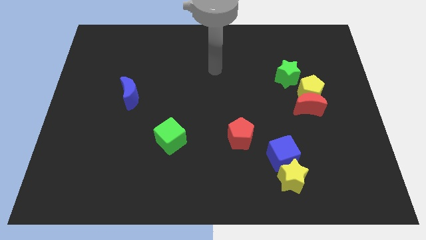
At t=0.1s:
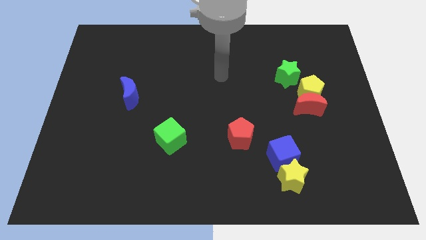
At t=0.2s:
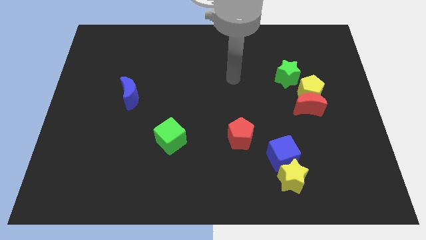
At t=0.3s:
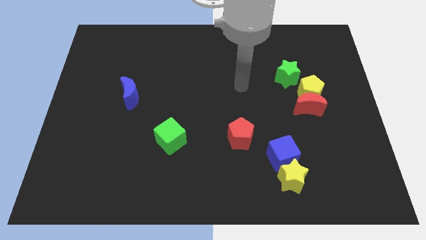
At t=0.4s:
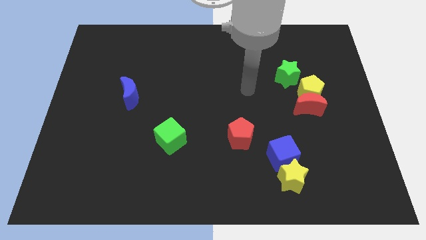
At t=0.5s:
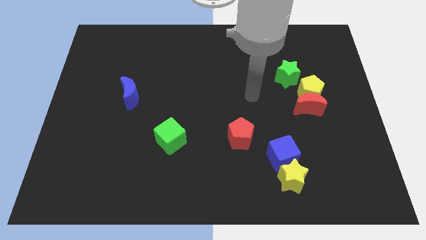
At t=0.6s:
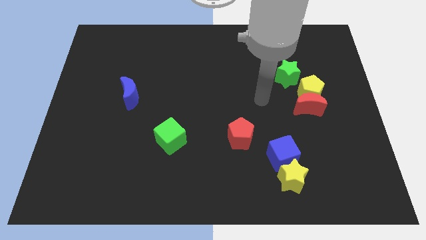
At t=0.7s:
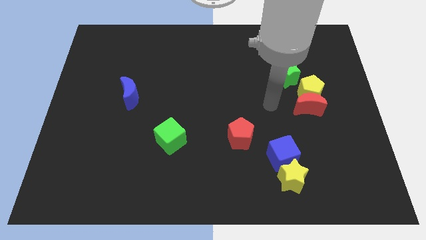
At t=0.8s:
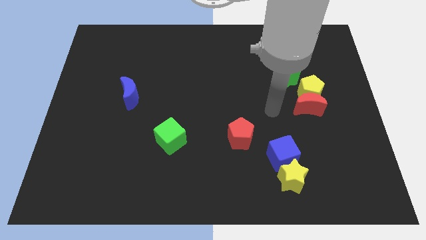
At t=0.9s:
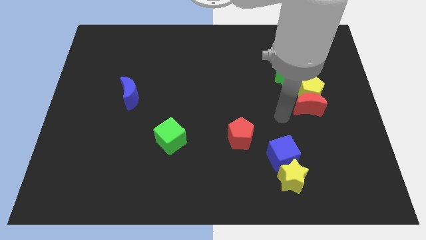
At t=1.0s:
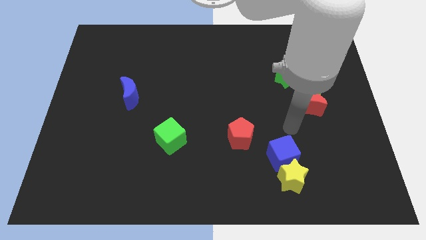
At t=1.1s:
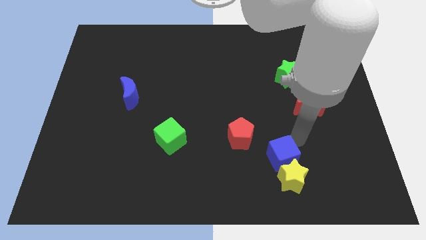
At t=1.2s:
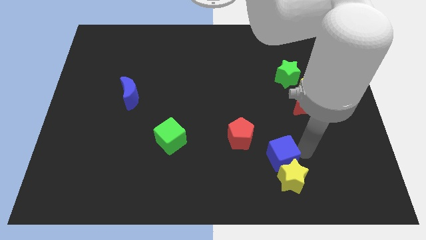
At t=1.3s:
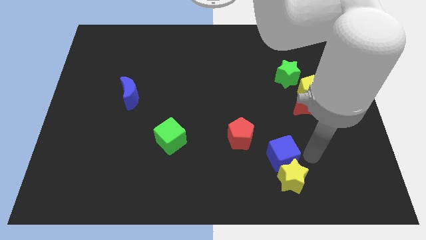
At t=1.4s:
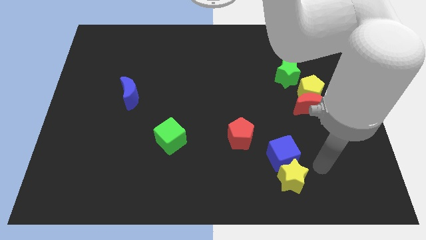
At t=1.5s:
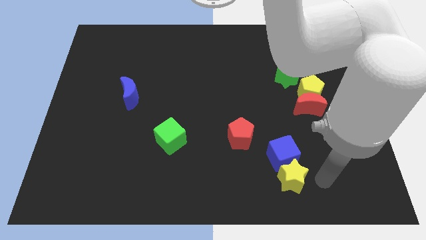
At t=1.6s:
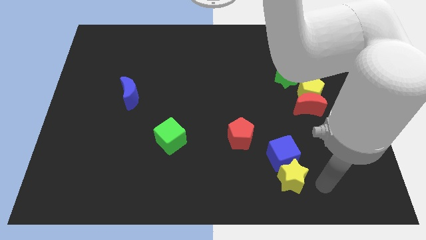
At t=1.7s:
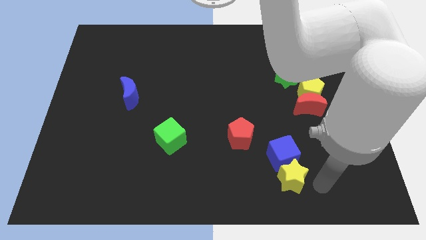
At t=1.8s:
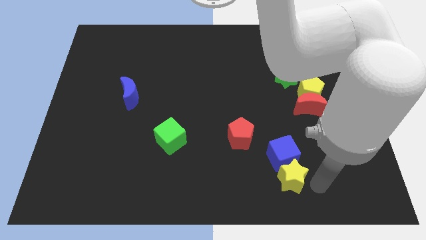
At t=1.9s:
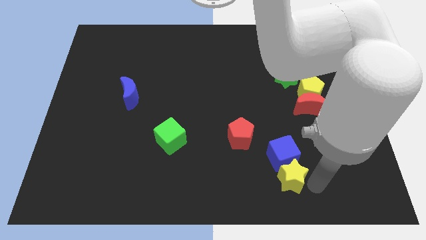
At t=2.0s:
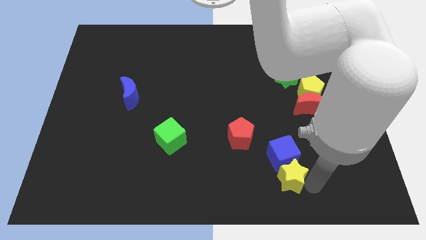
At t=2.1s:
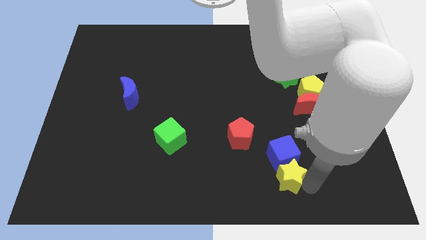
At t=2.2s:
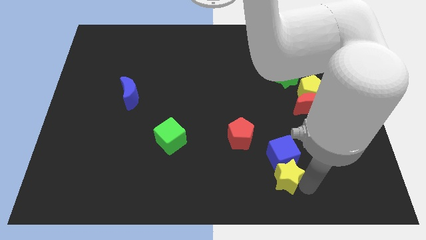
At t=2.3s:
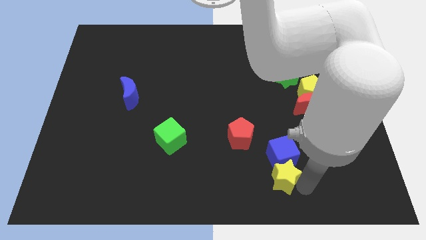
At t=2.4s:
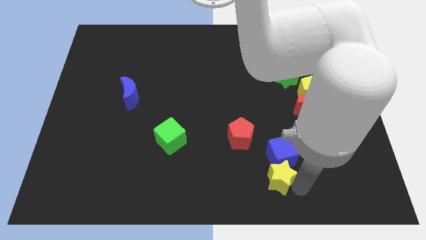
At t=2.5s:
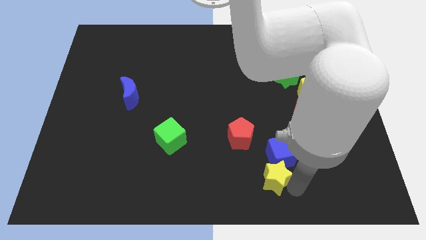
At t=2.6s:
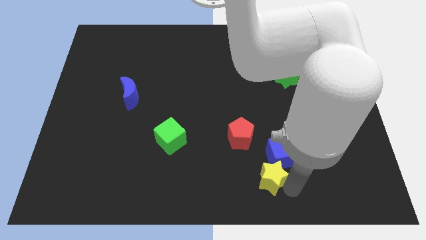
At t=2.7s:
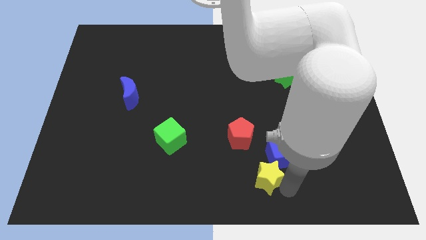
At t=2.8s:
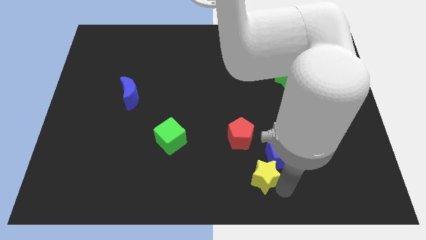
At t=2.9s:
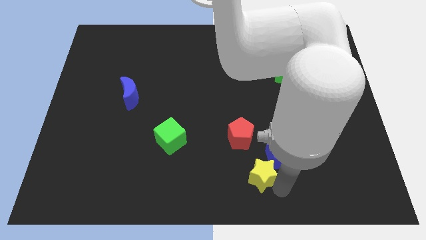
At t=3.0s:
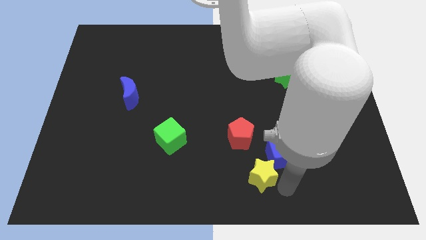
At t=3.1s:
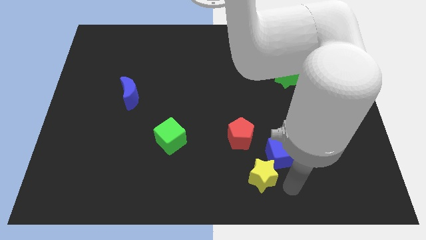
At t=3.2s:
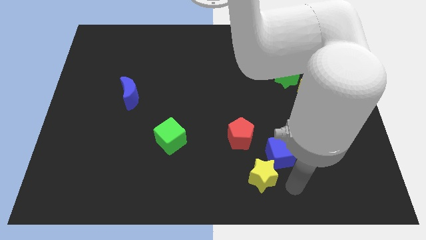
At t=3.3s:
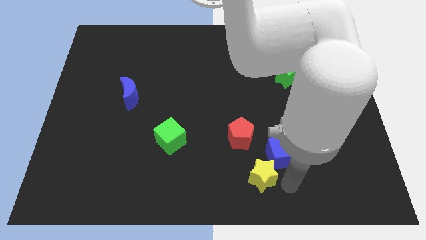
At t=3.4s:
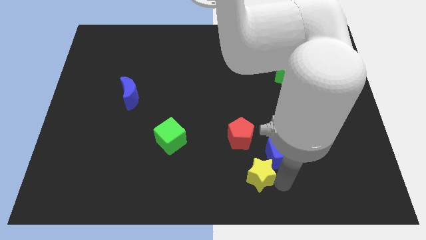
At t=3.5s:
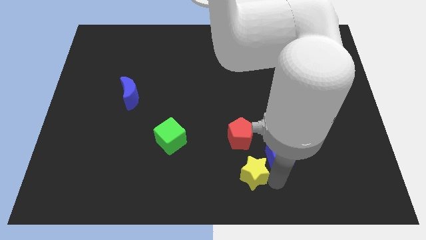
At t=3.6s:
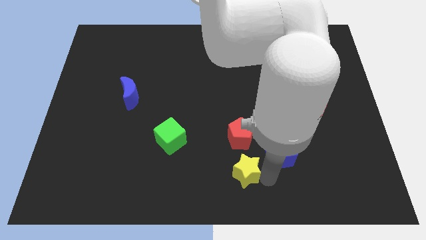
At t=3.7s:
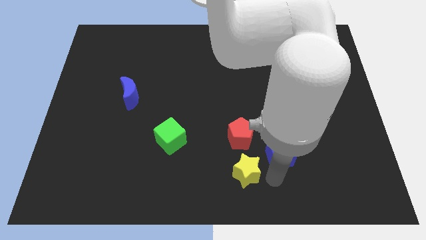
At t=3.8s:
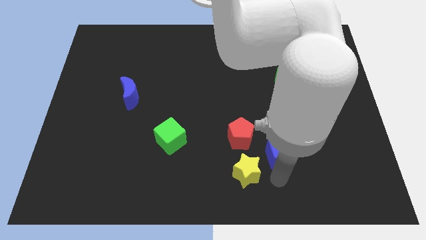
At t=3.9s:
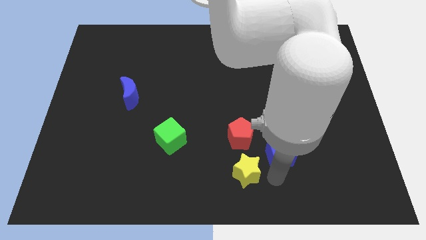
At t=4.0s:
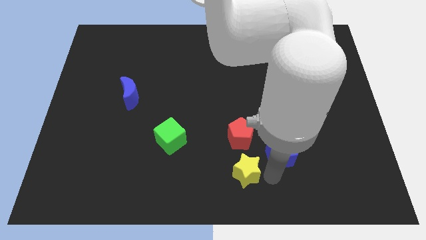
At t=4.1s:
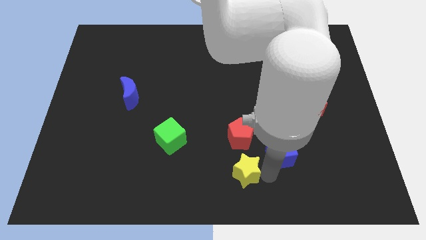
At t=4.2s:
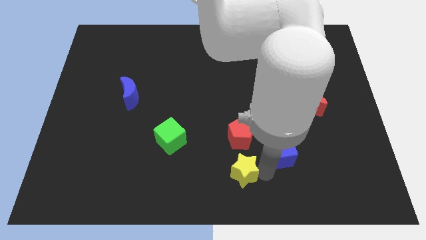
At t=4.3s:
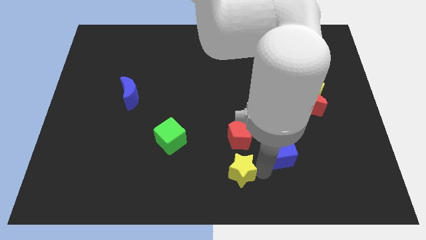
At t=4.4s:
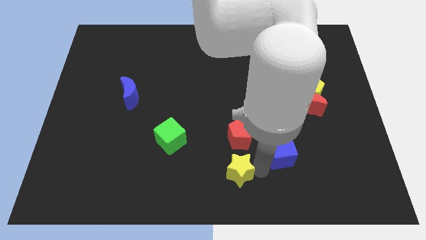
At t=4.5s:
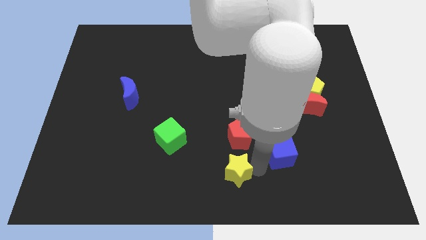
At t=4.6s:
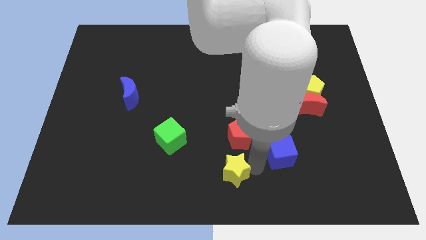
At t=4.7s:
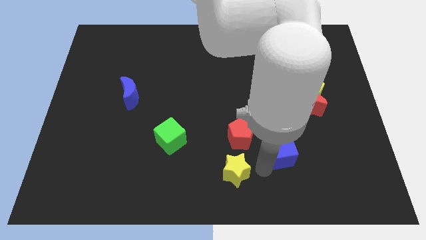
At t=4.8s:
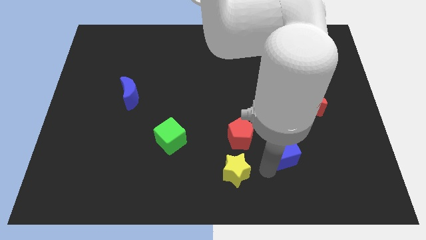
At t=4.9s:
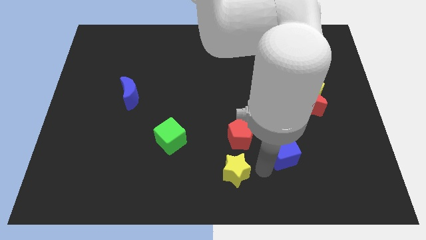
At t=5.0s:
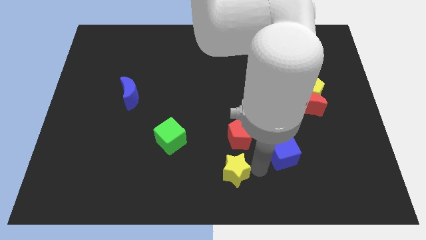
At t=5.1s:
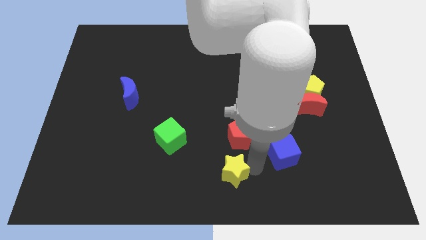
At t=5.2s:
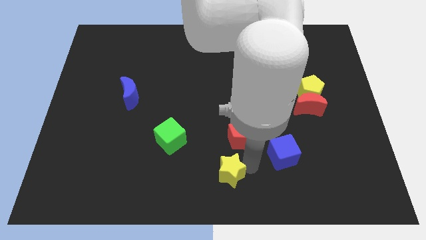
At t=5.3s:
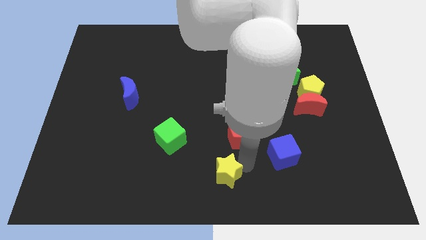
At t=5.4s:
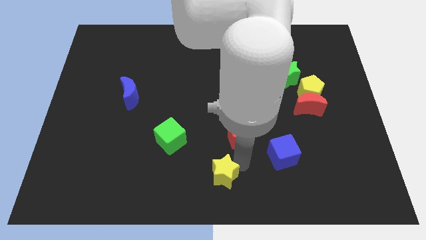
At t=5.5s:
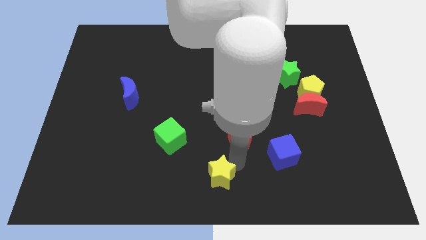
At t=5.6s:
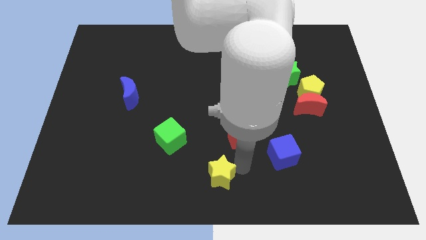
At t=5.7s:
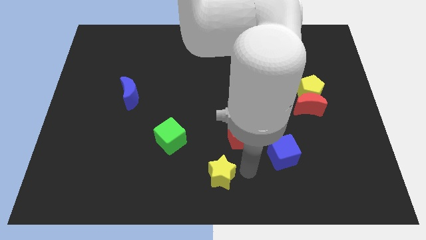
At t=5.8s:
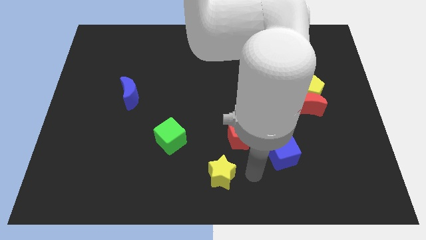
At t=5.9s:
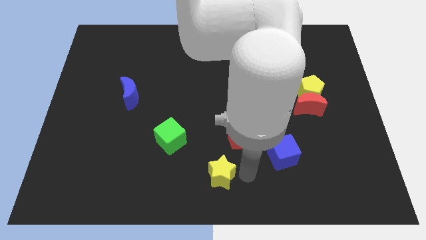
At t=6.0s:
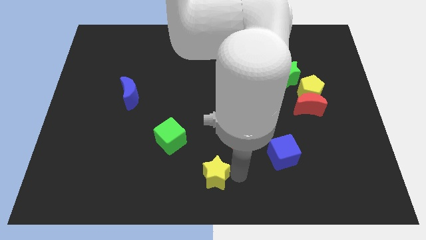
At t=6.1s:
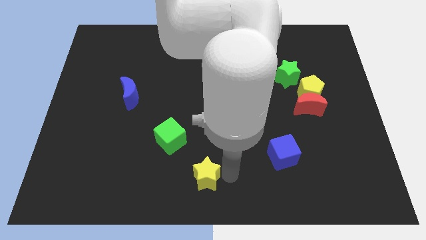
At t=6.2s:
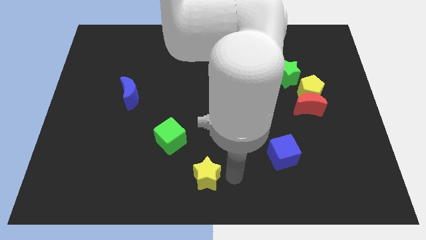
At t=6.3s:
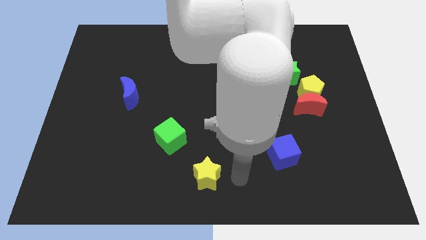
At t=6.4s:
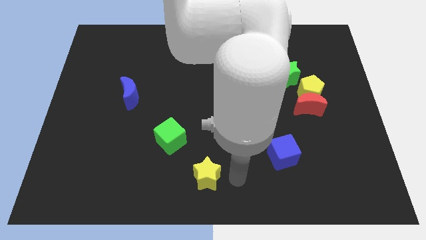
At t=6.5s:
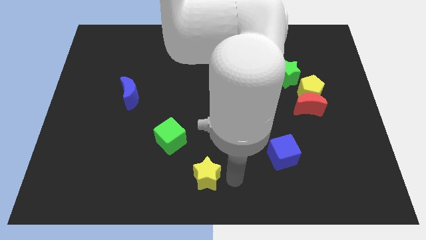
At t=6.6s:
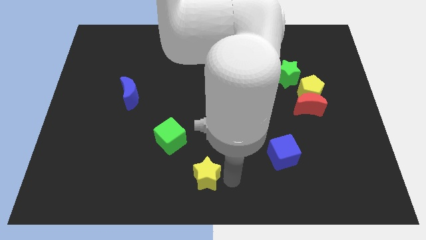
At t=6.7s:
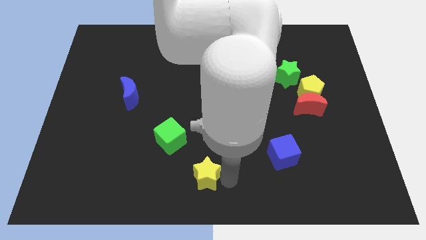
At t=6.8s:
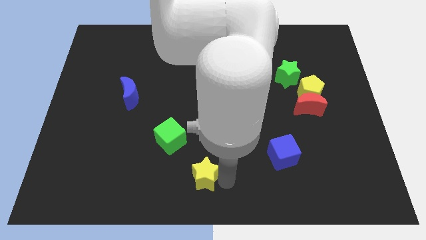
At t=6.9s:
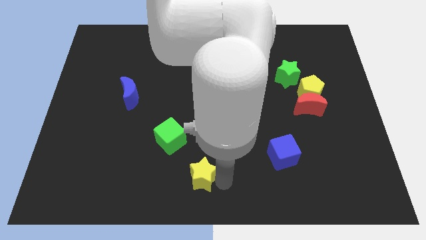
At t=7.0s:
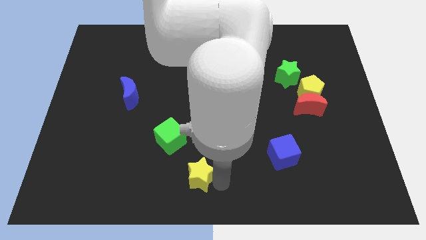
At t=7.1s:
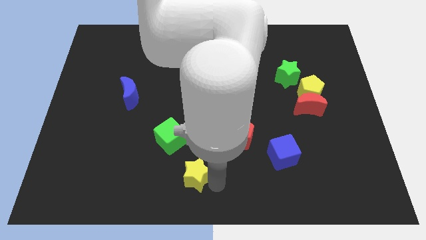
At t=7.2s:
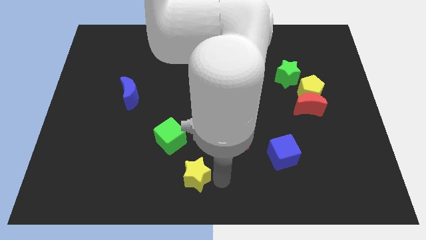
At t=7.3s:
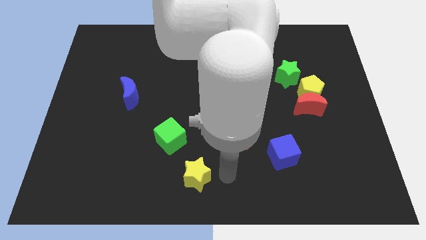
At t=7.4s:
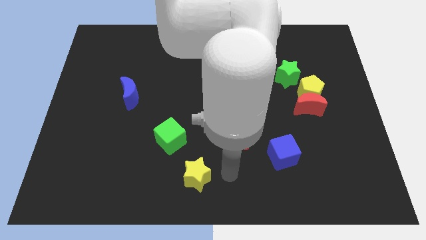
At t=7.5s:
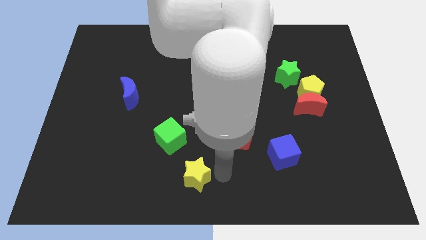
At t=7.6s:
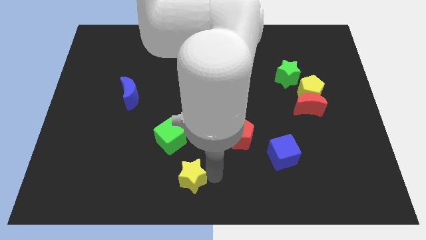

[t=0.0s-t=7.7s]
move the yellow star to the left

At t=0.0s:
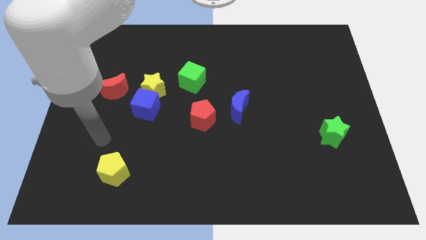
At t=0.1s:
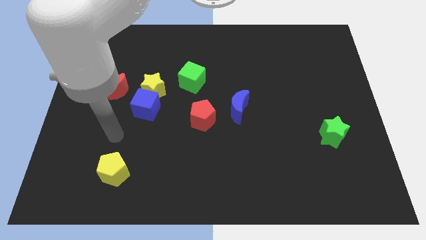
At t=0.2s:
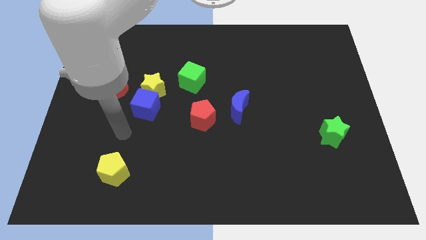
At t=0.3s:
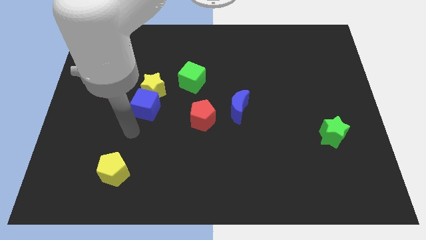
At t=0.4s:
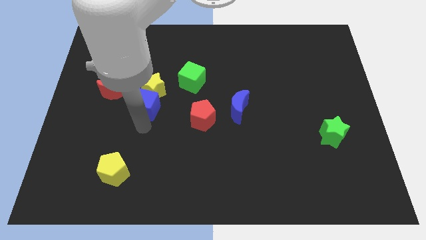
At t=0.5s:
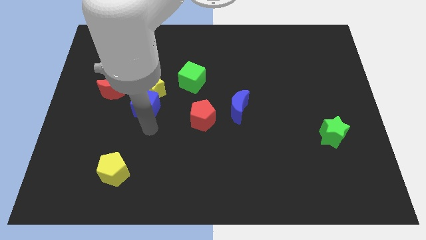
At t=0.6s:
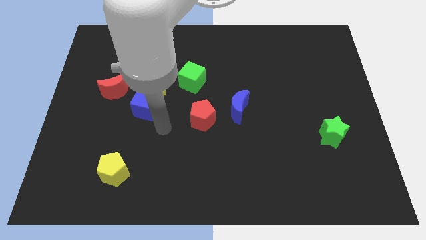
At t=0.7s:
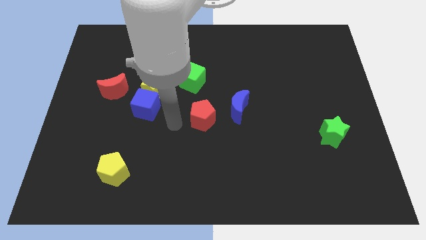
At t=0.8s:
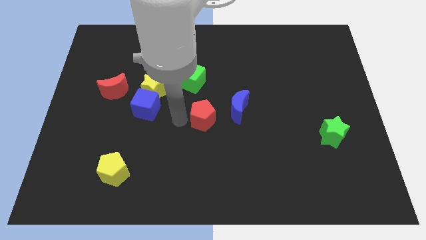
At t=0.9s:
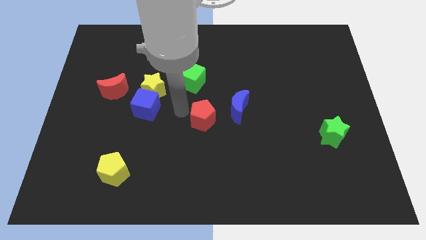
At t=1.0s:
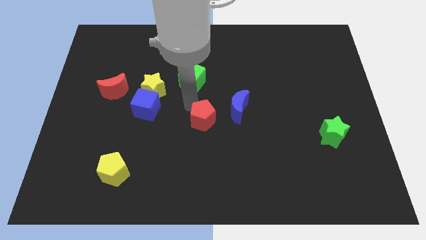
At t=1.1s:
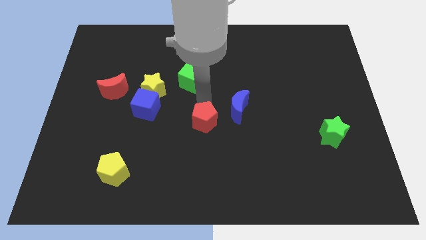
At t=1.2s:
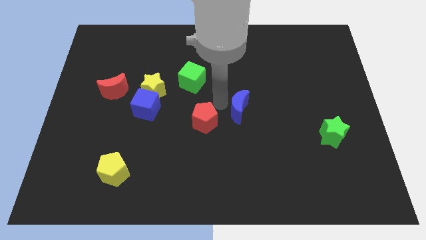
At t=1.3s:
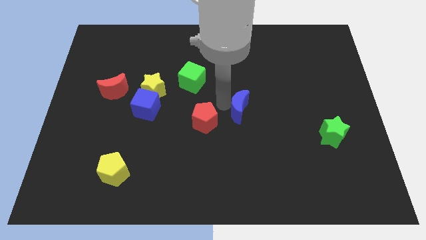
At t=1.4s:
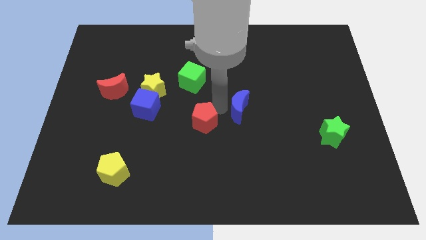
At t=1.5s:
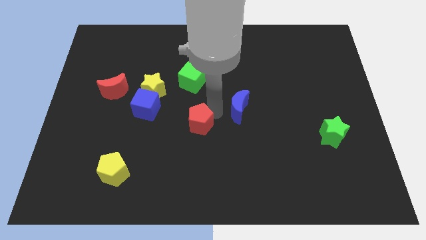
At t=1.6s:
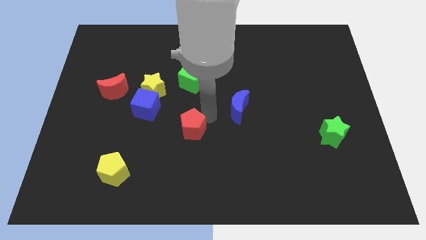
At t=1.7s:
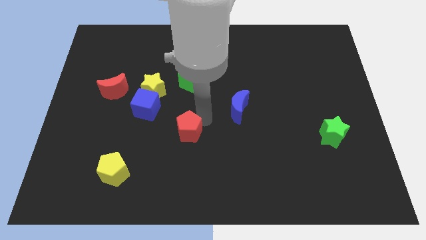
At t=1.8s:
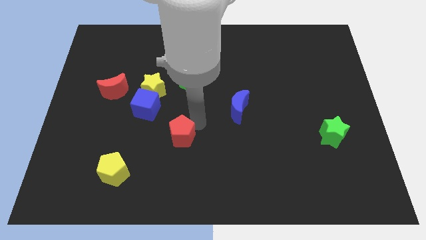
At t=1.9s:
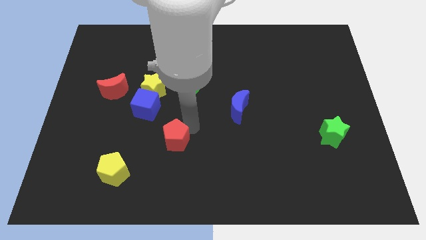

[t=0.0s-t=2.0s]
slide the red pentagon a little down and left diagonally
